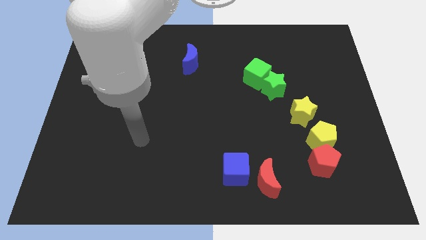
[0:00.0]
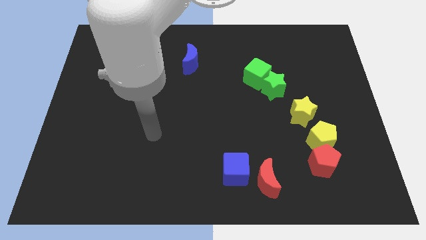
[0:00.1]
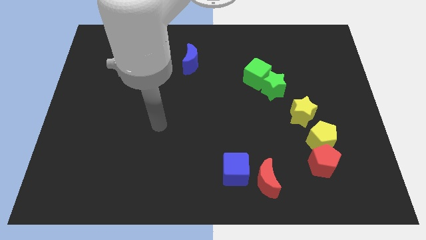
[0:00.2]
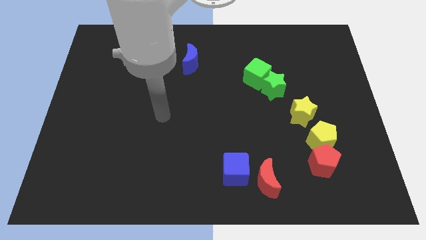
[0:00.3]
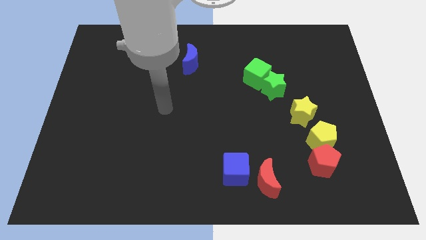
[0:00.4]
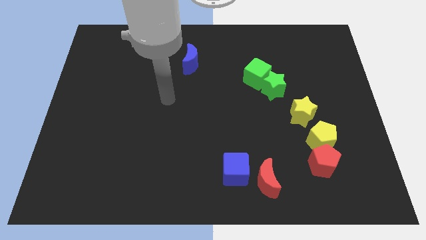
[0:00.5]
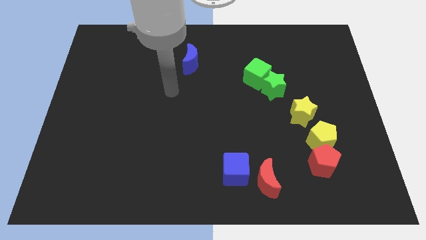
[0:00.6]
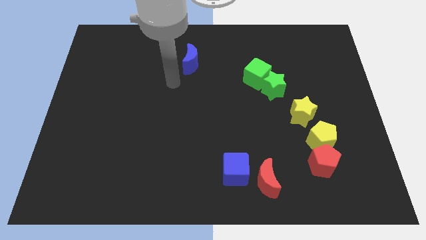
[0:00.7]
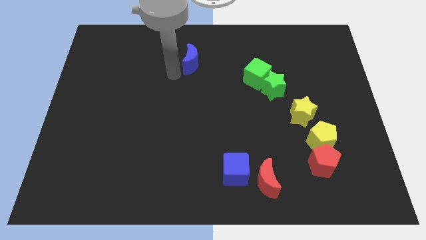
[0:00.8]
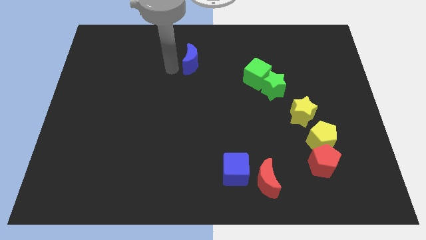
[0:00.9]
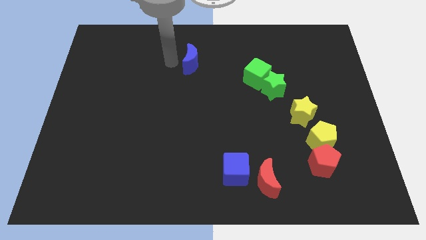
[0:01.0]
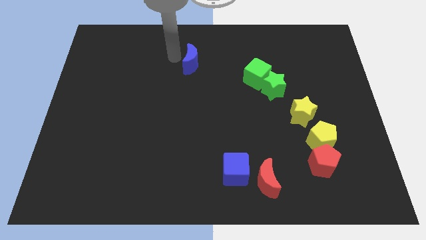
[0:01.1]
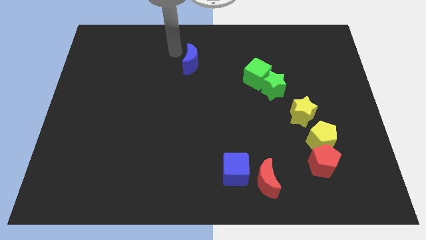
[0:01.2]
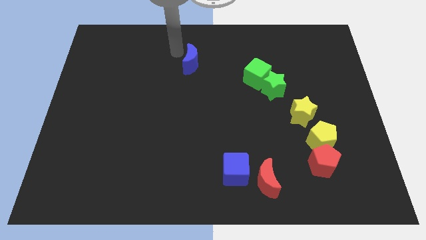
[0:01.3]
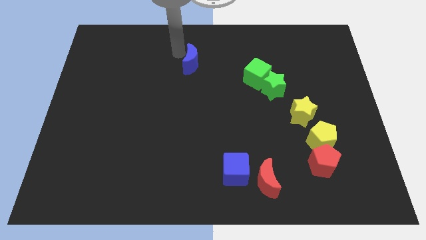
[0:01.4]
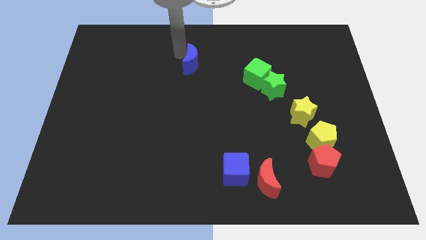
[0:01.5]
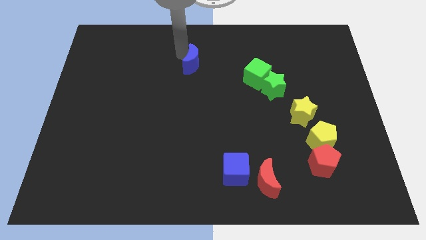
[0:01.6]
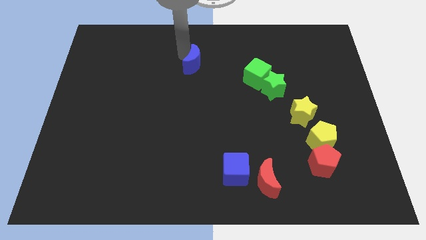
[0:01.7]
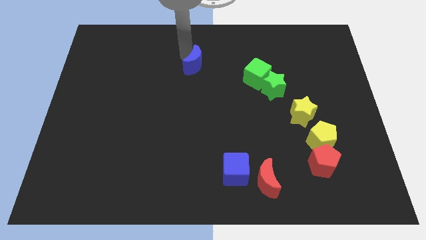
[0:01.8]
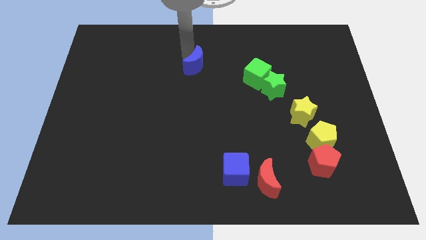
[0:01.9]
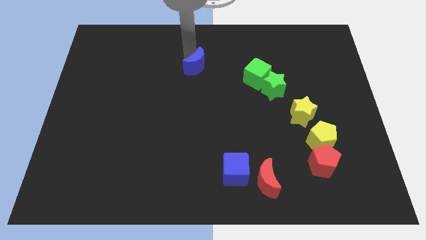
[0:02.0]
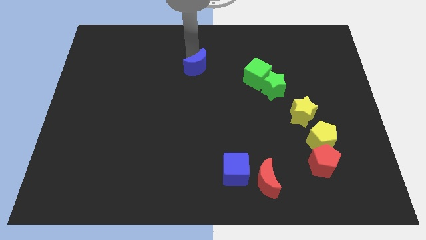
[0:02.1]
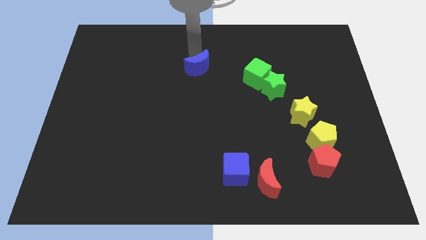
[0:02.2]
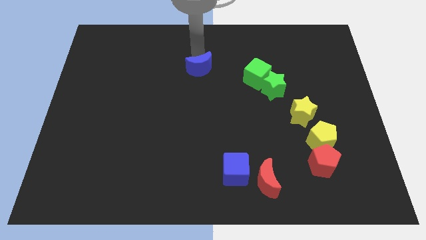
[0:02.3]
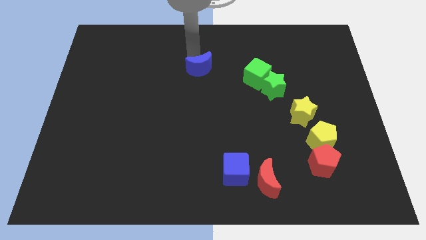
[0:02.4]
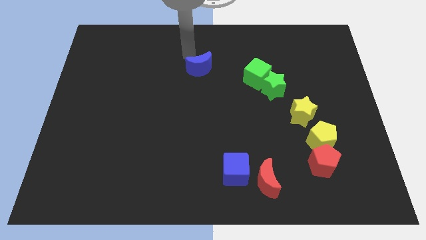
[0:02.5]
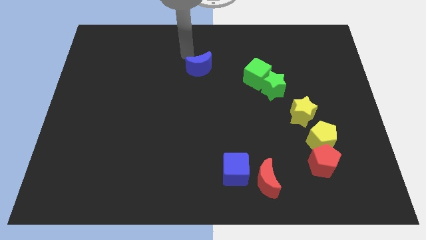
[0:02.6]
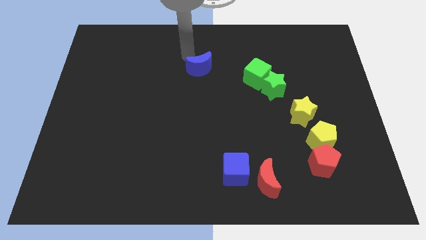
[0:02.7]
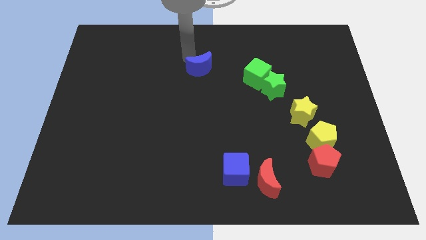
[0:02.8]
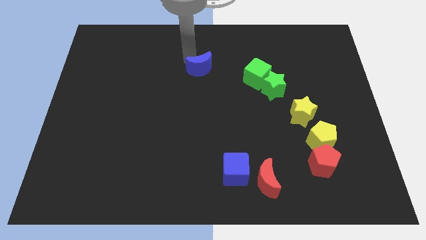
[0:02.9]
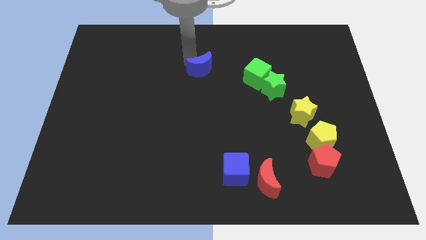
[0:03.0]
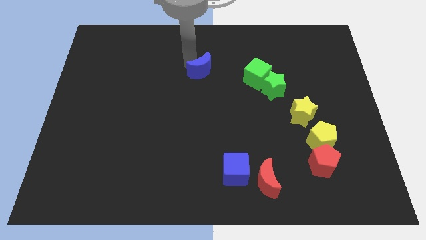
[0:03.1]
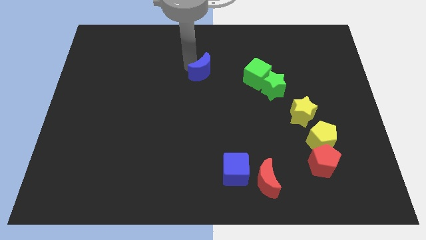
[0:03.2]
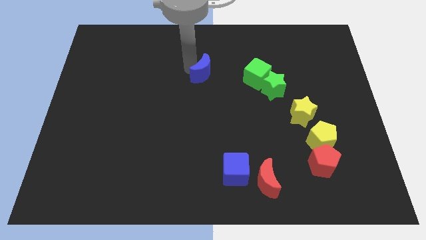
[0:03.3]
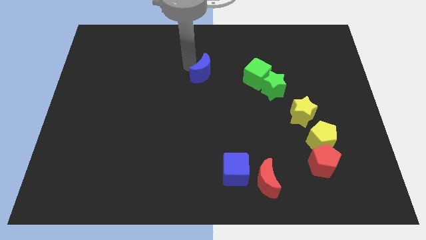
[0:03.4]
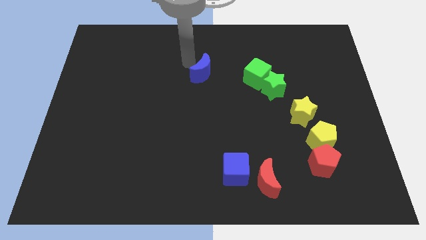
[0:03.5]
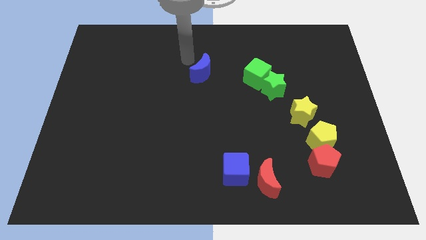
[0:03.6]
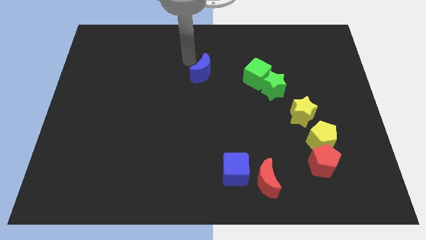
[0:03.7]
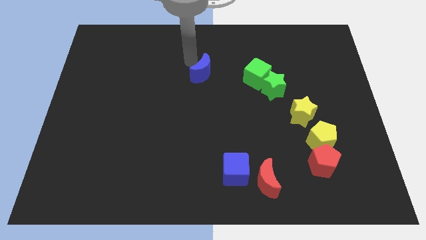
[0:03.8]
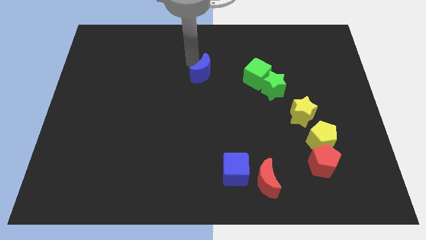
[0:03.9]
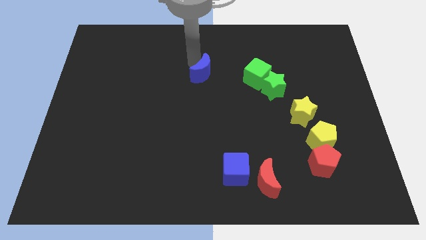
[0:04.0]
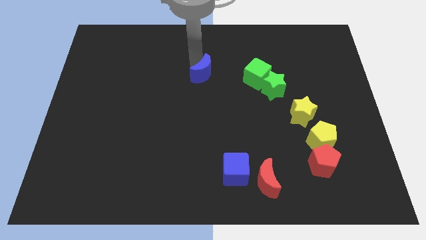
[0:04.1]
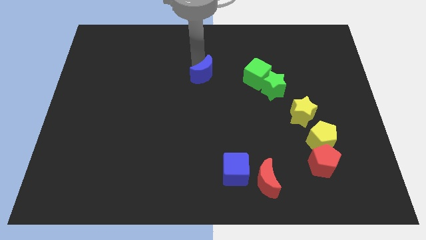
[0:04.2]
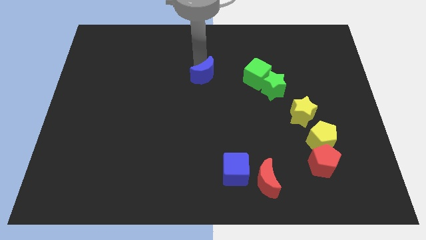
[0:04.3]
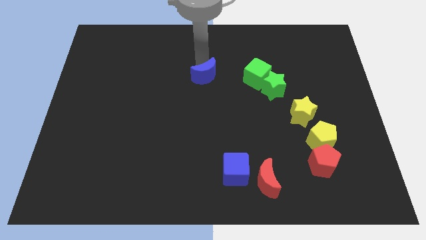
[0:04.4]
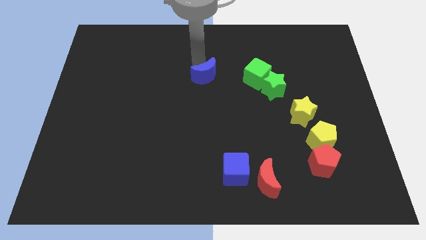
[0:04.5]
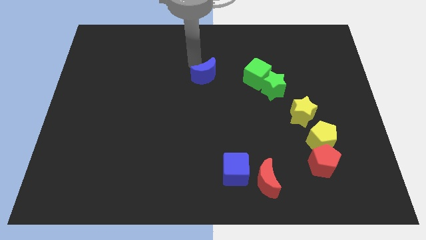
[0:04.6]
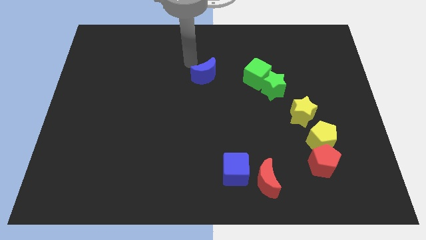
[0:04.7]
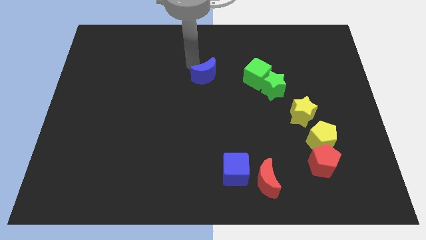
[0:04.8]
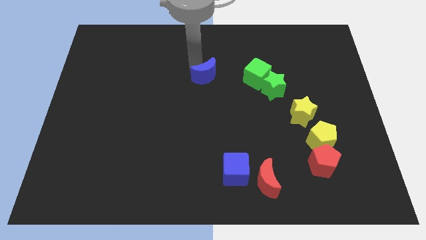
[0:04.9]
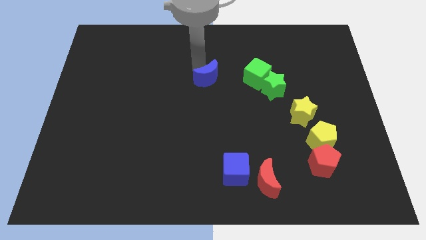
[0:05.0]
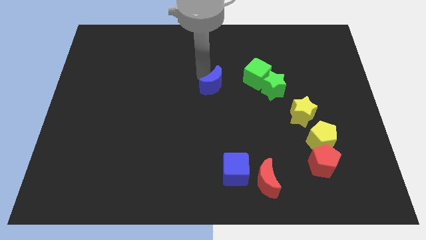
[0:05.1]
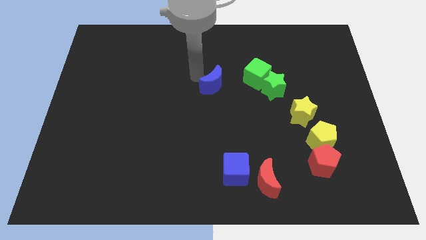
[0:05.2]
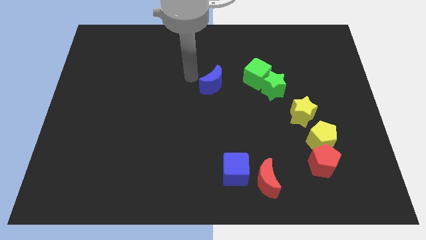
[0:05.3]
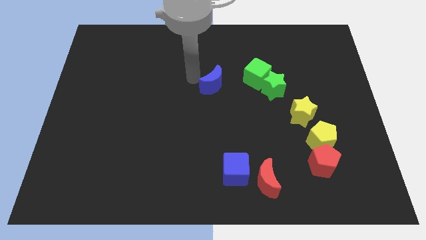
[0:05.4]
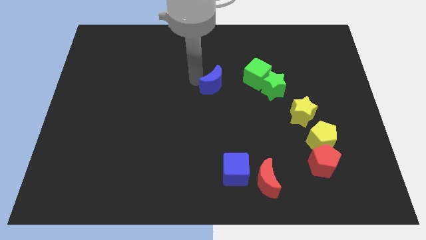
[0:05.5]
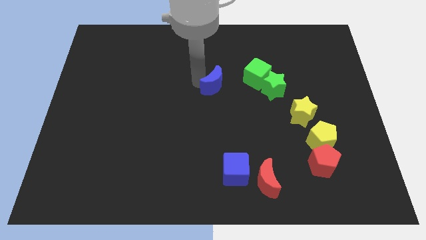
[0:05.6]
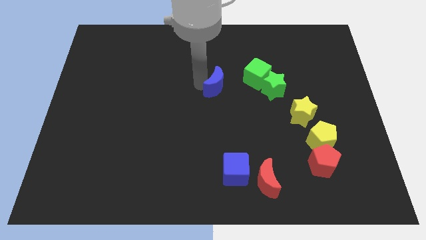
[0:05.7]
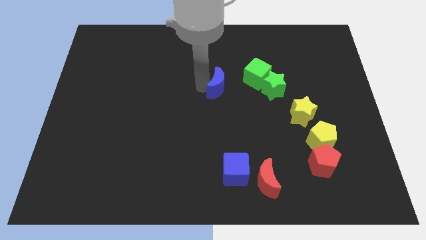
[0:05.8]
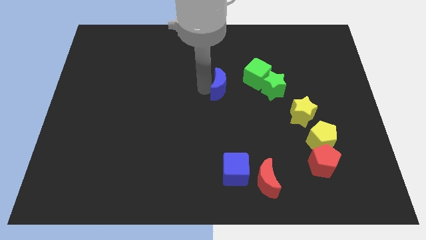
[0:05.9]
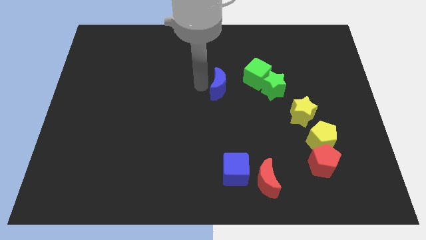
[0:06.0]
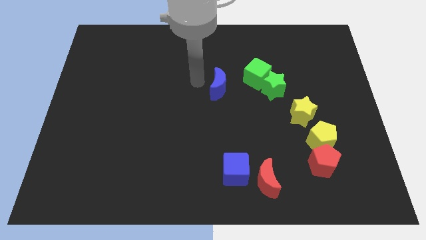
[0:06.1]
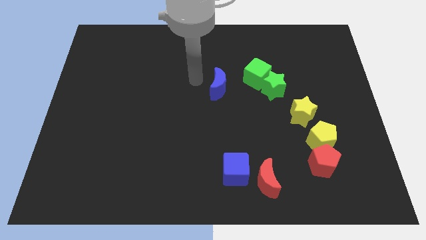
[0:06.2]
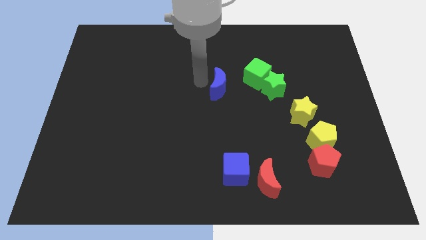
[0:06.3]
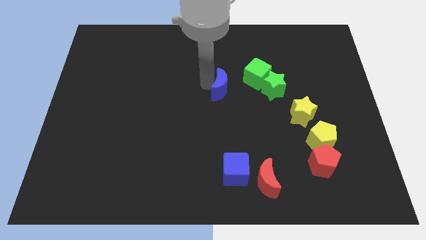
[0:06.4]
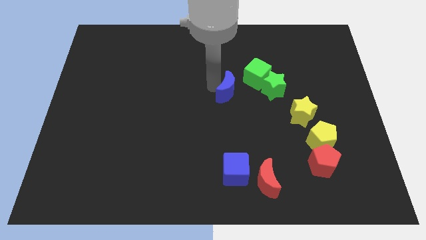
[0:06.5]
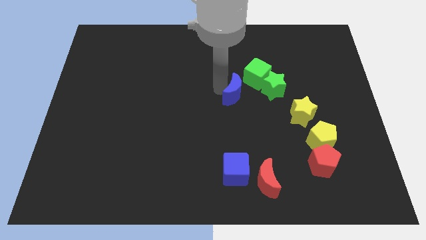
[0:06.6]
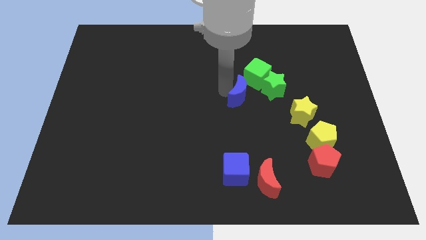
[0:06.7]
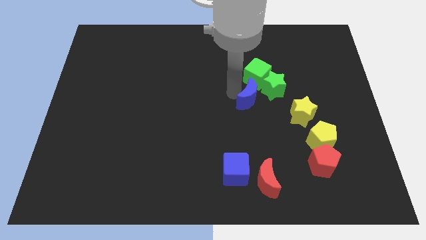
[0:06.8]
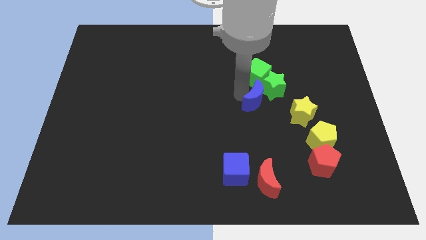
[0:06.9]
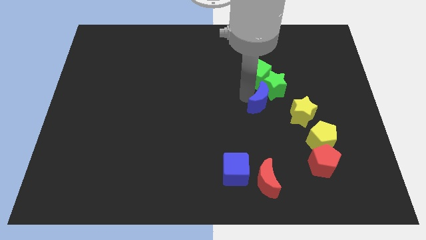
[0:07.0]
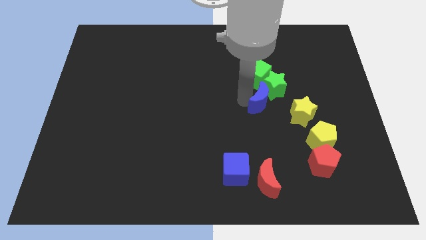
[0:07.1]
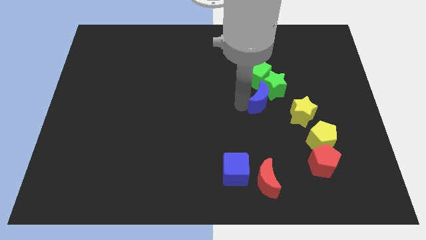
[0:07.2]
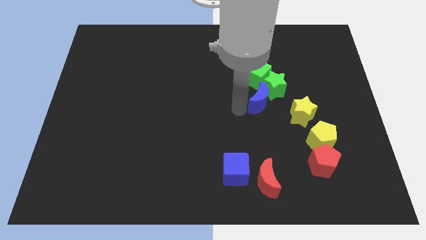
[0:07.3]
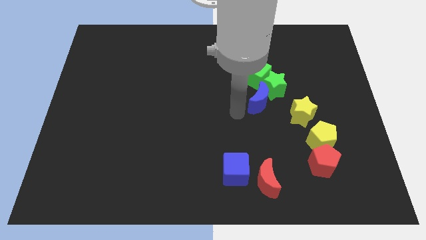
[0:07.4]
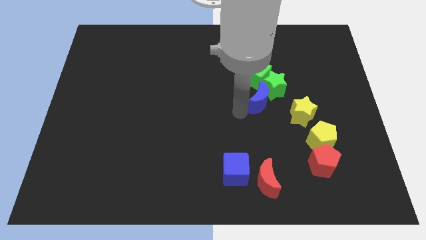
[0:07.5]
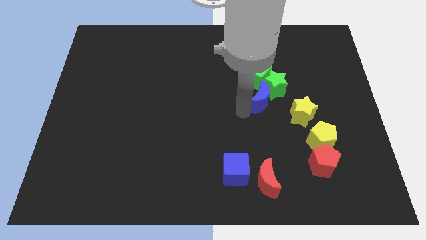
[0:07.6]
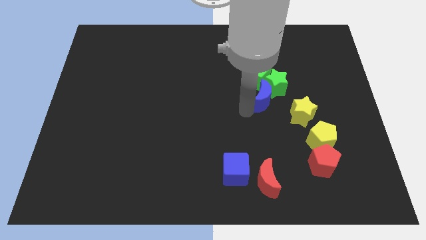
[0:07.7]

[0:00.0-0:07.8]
push the blue moon diagonally down and to the right of the green cube
